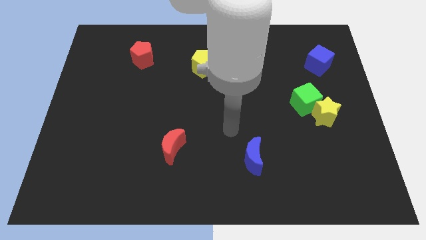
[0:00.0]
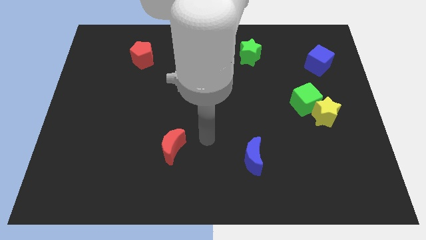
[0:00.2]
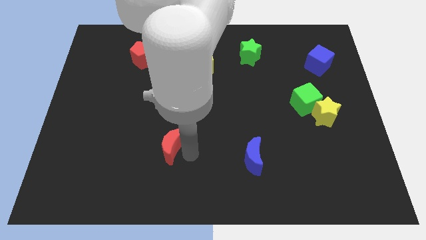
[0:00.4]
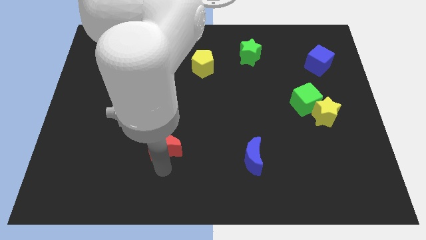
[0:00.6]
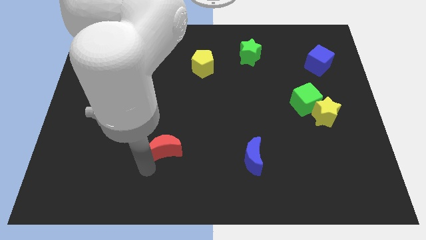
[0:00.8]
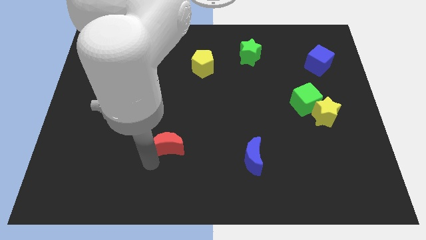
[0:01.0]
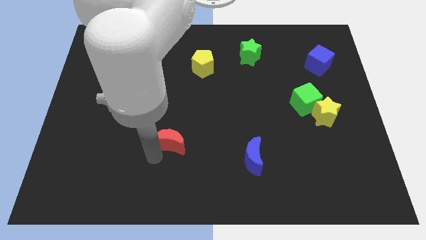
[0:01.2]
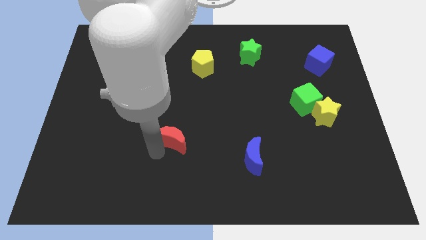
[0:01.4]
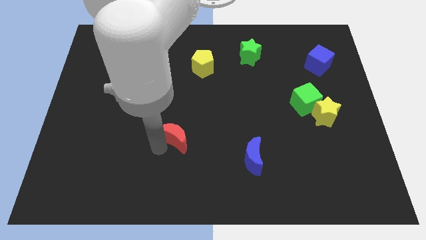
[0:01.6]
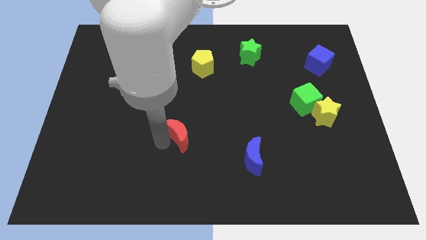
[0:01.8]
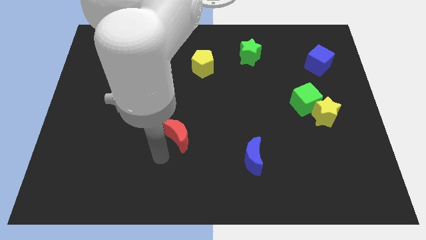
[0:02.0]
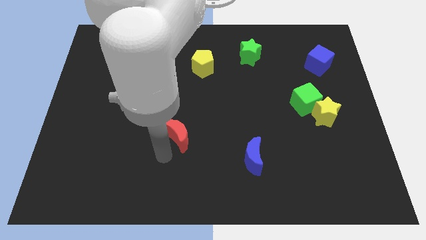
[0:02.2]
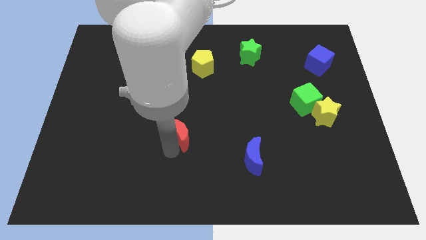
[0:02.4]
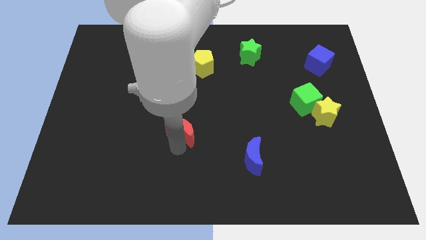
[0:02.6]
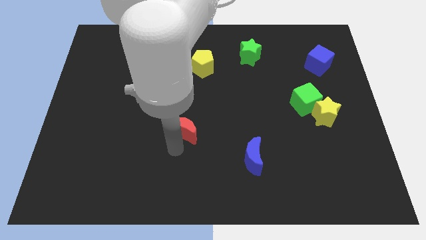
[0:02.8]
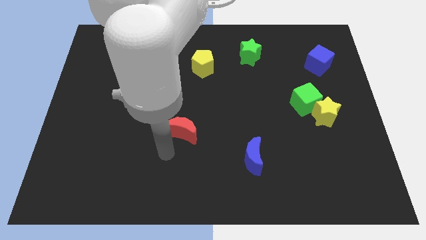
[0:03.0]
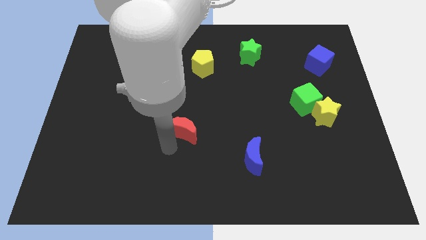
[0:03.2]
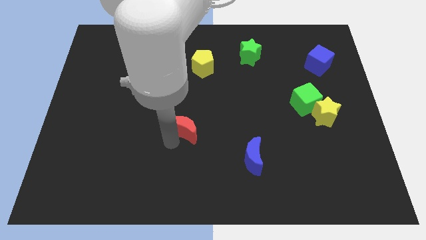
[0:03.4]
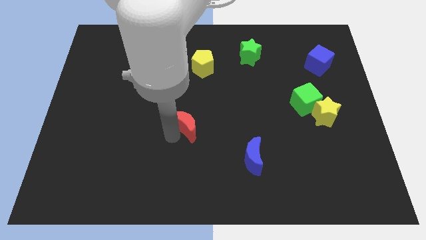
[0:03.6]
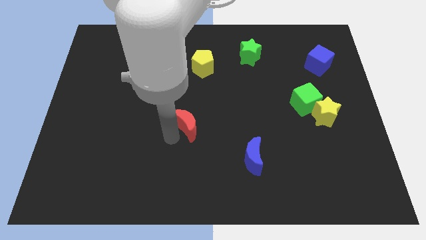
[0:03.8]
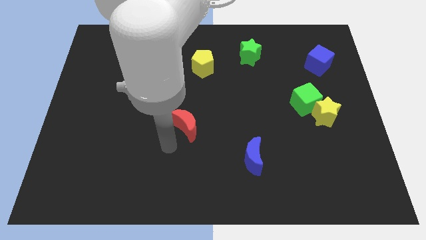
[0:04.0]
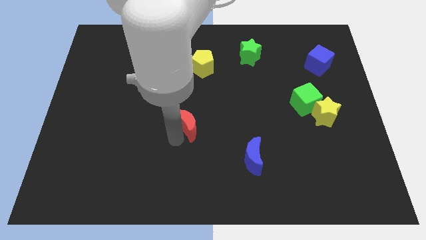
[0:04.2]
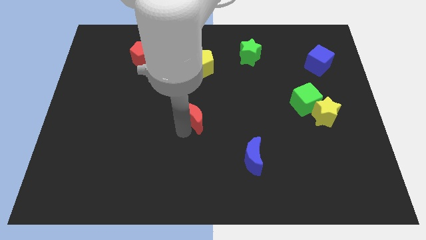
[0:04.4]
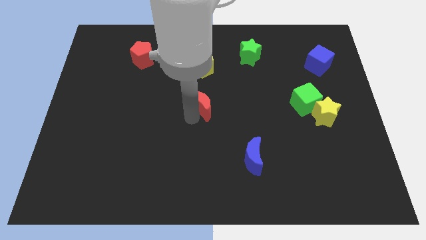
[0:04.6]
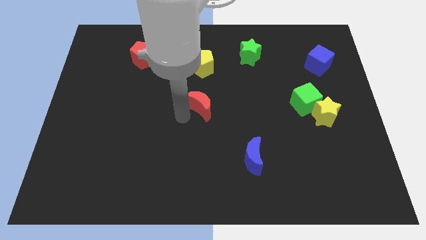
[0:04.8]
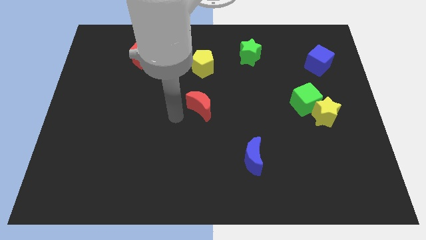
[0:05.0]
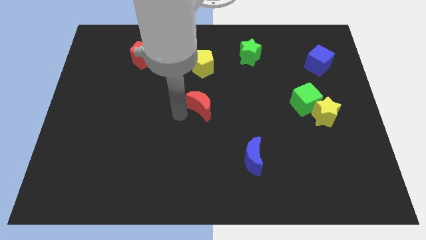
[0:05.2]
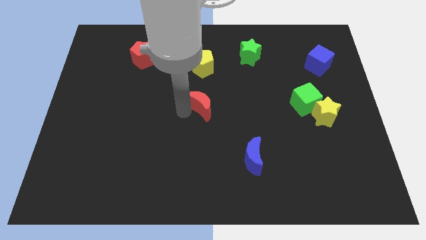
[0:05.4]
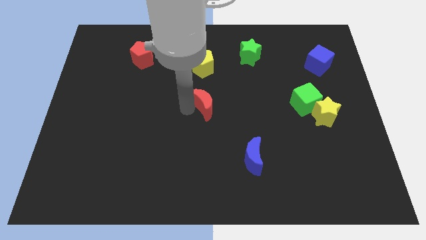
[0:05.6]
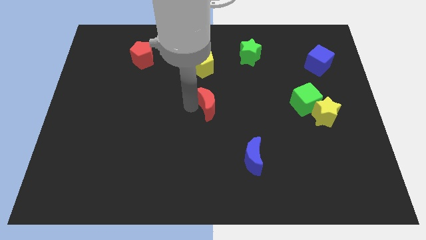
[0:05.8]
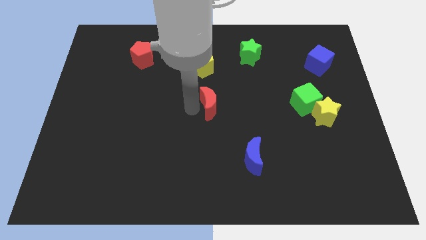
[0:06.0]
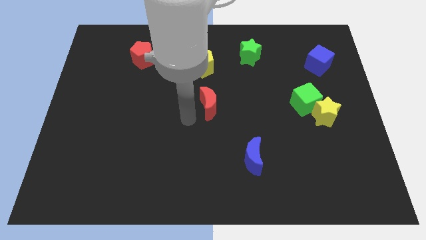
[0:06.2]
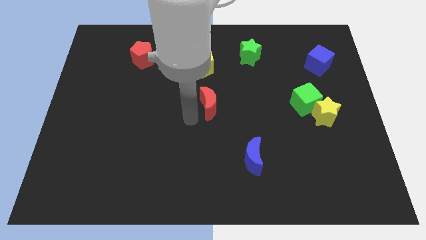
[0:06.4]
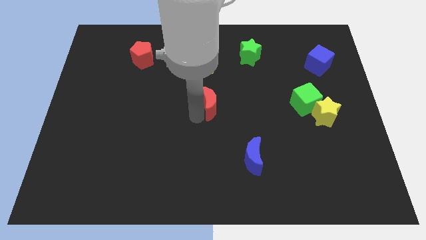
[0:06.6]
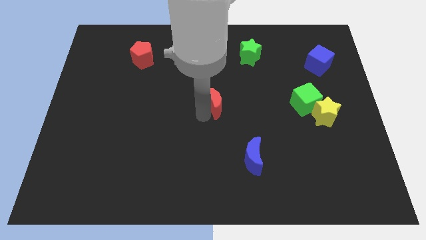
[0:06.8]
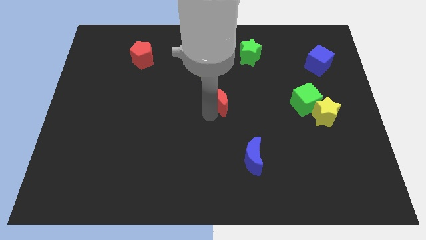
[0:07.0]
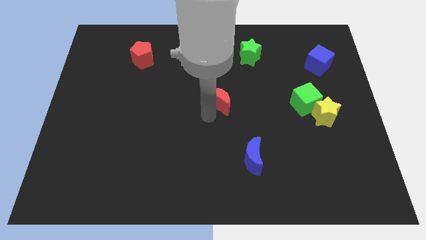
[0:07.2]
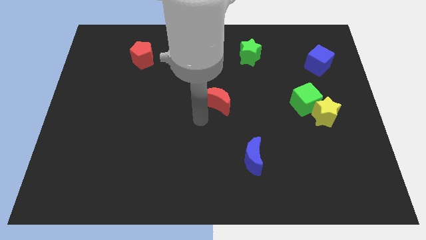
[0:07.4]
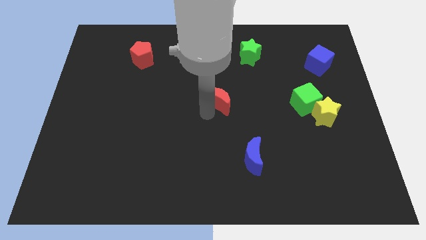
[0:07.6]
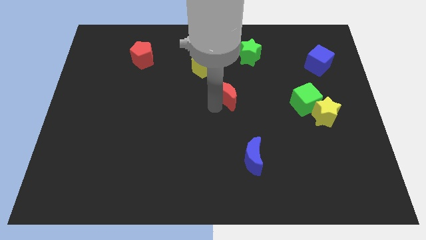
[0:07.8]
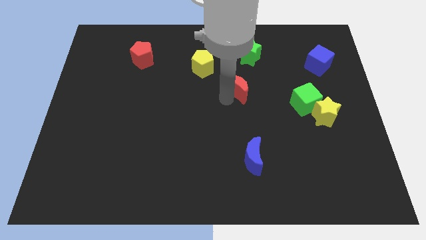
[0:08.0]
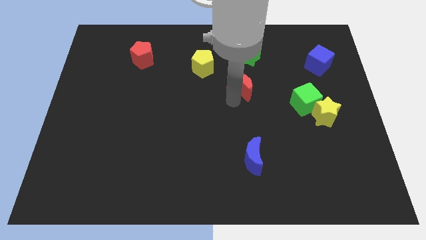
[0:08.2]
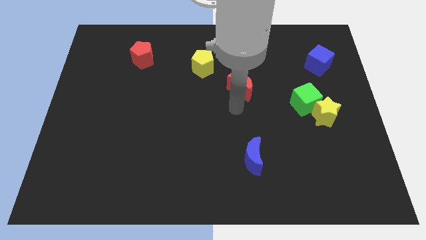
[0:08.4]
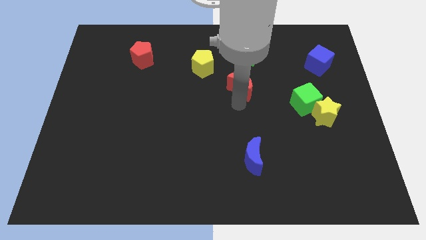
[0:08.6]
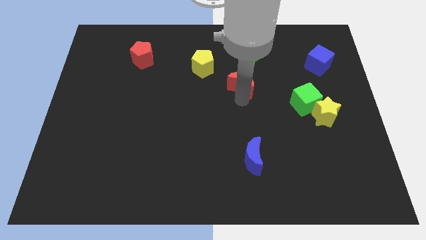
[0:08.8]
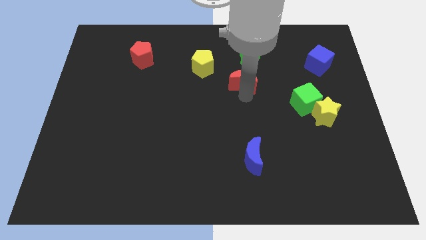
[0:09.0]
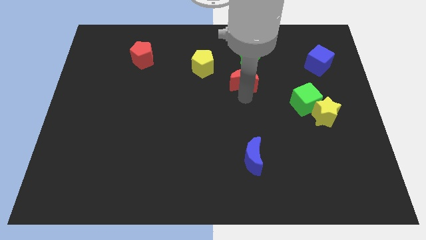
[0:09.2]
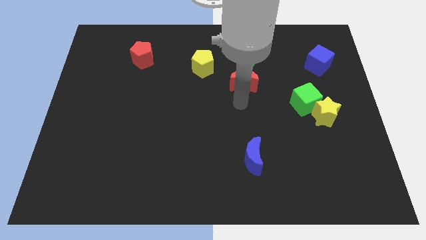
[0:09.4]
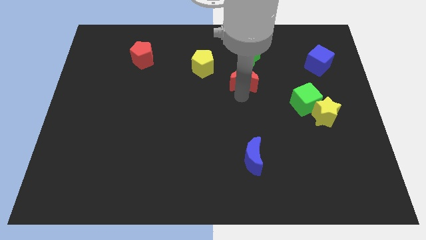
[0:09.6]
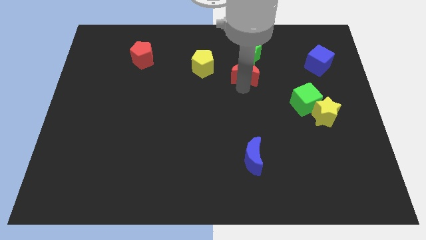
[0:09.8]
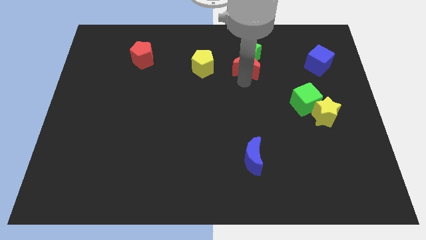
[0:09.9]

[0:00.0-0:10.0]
move the red moon next to the green star

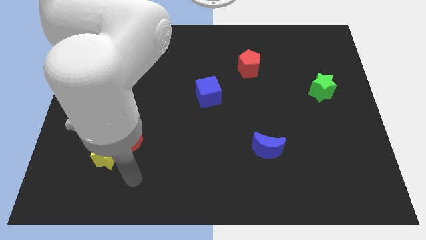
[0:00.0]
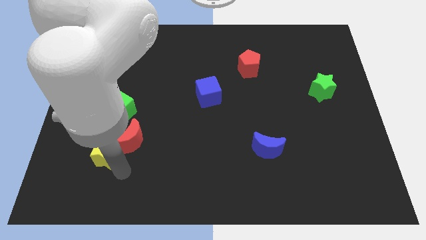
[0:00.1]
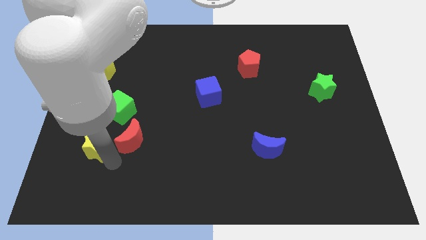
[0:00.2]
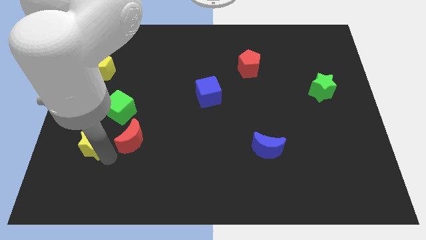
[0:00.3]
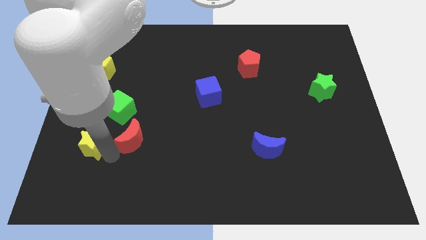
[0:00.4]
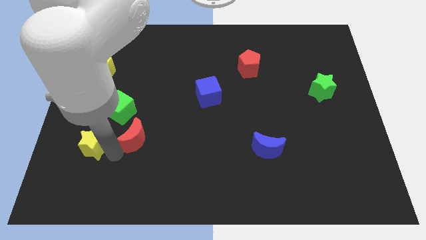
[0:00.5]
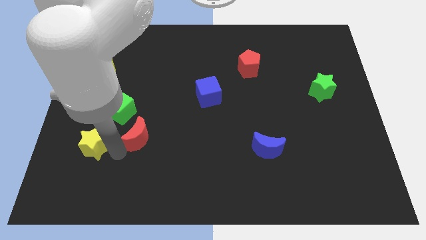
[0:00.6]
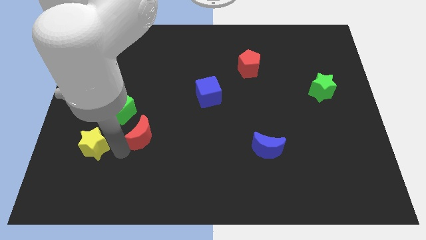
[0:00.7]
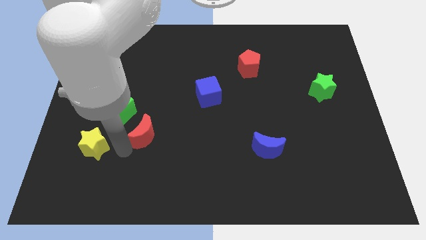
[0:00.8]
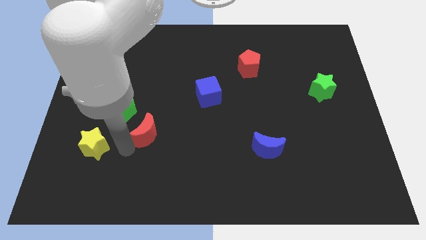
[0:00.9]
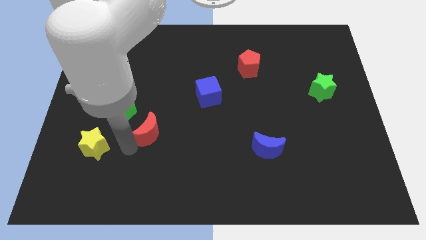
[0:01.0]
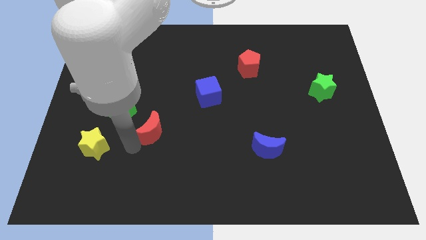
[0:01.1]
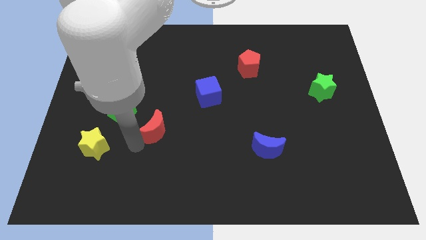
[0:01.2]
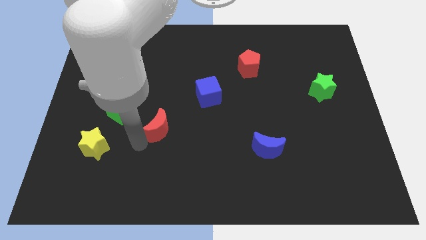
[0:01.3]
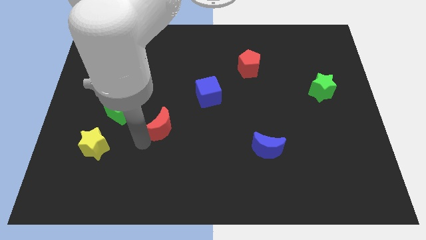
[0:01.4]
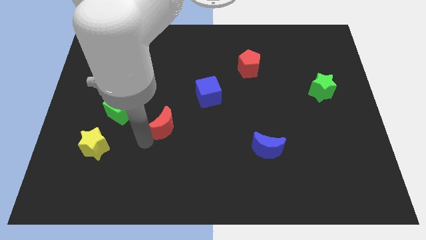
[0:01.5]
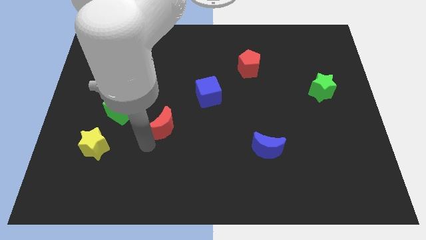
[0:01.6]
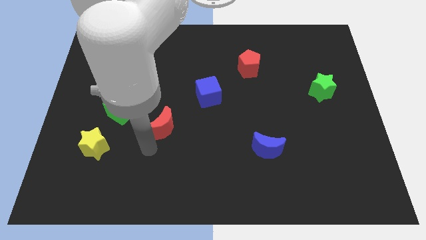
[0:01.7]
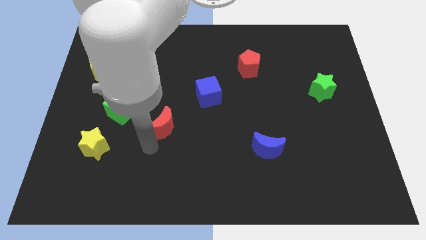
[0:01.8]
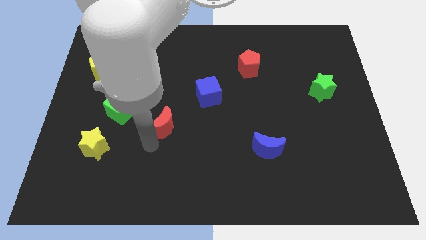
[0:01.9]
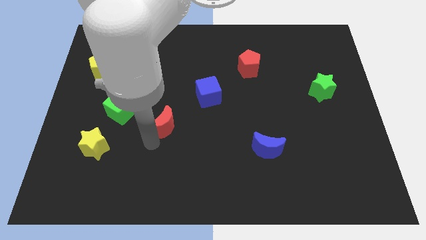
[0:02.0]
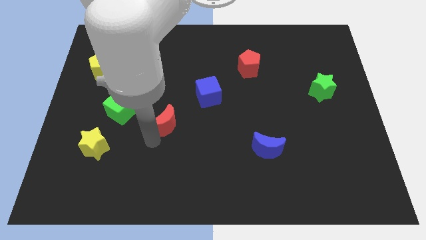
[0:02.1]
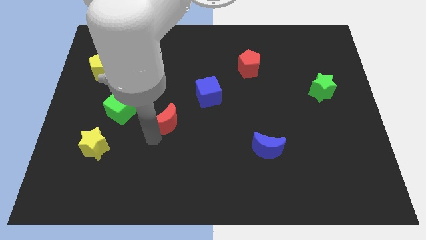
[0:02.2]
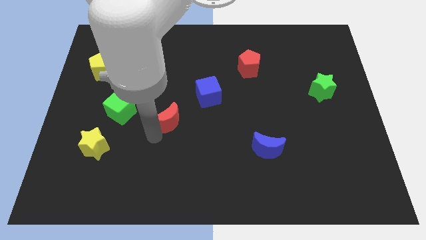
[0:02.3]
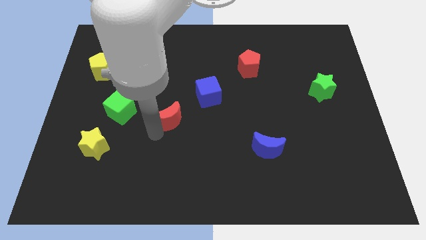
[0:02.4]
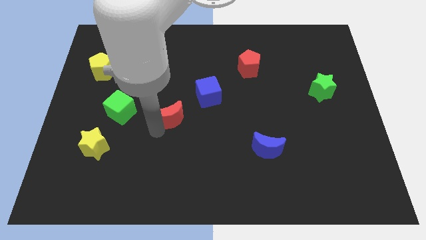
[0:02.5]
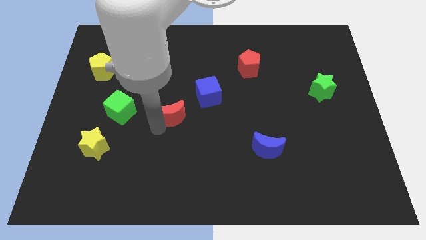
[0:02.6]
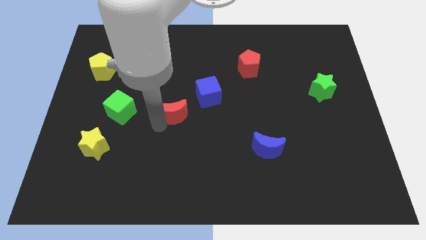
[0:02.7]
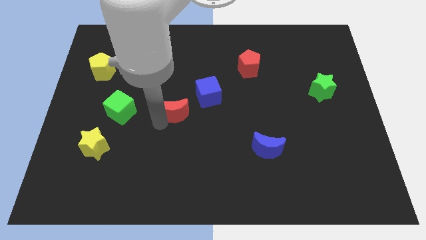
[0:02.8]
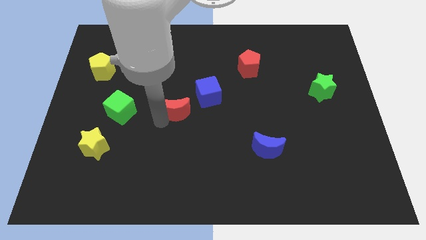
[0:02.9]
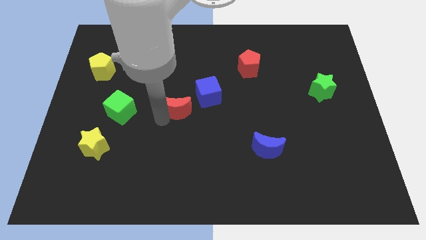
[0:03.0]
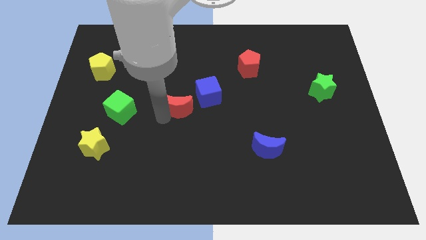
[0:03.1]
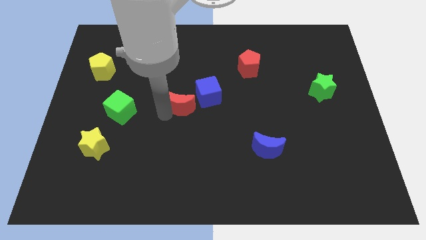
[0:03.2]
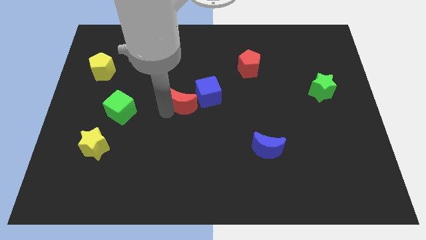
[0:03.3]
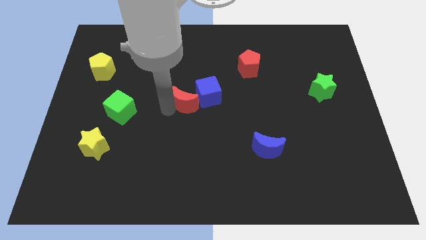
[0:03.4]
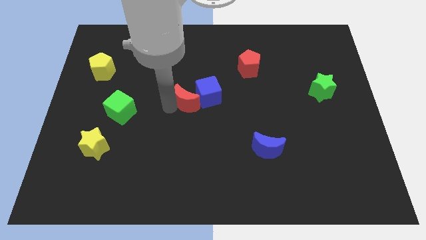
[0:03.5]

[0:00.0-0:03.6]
slide the red moon next to the blue cube
